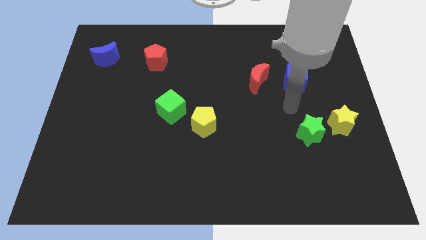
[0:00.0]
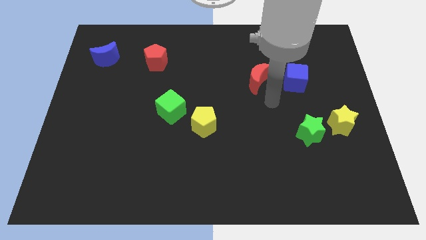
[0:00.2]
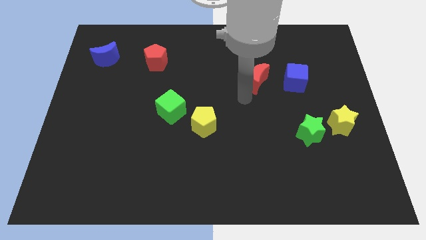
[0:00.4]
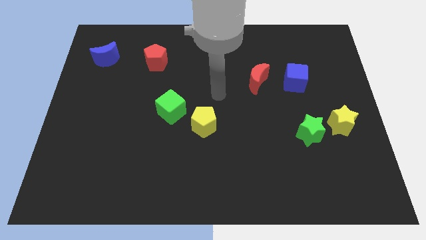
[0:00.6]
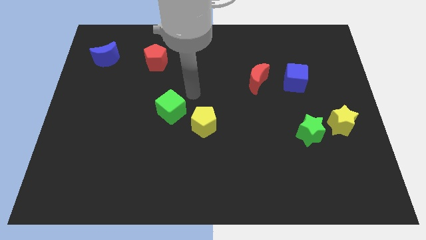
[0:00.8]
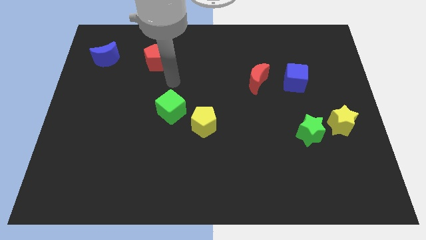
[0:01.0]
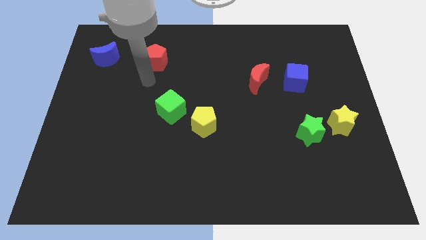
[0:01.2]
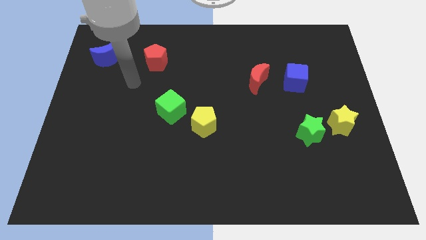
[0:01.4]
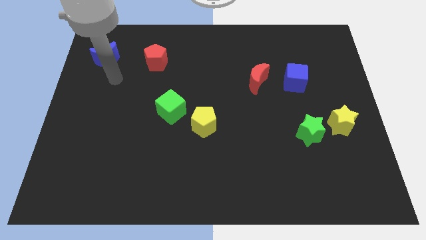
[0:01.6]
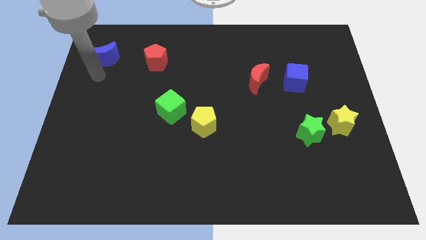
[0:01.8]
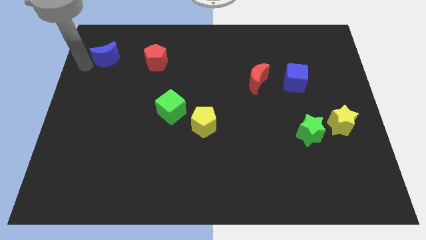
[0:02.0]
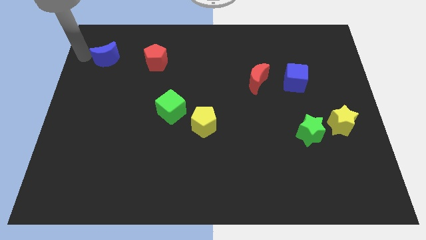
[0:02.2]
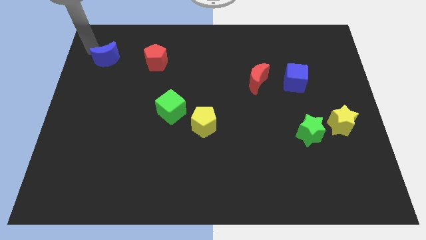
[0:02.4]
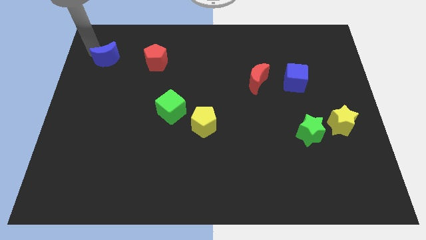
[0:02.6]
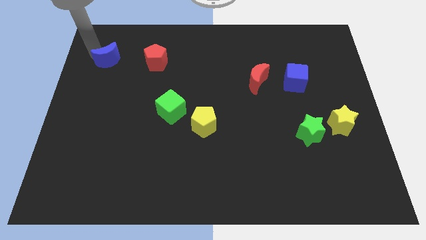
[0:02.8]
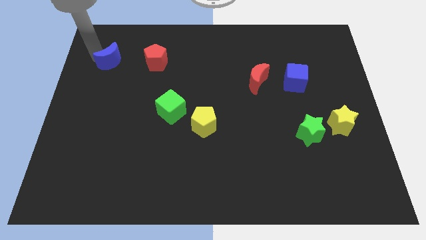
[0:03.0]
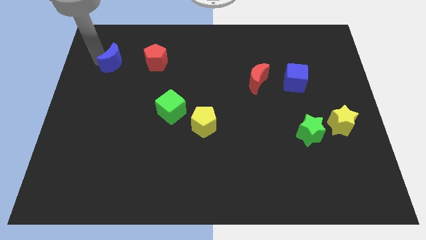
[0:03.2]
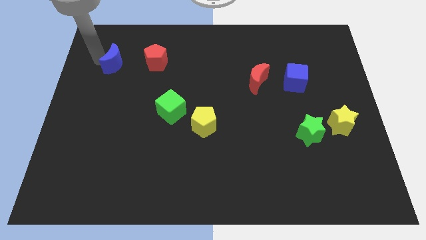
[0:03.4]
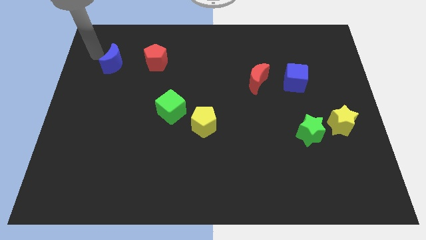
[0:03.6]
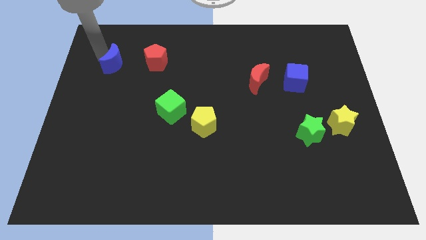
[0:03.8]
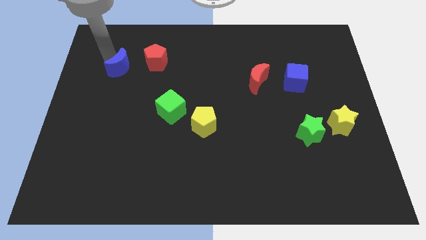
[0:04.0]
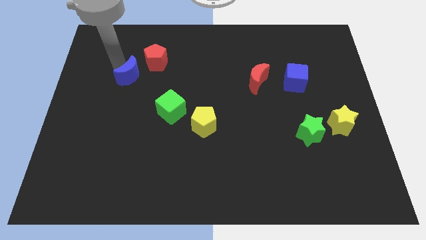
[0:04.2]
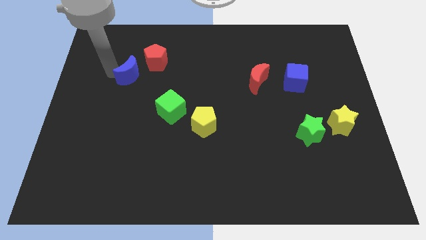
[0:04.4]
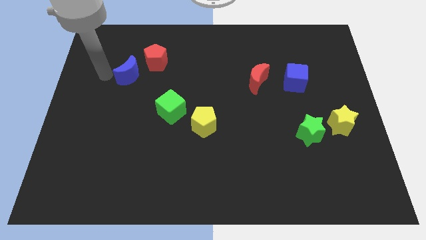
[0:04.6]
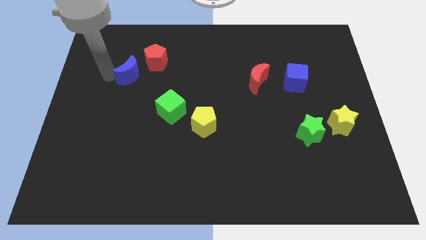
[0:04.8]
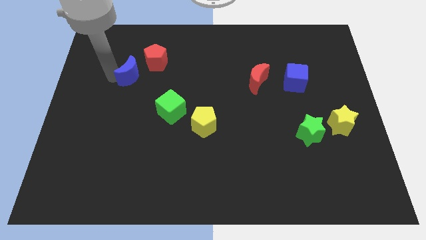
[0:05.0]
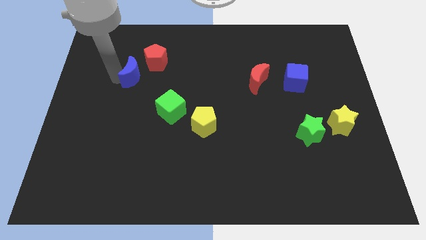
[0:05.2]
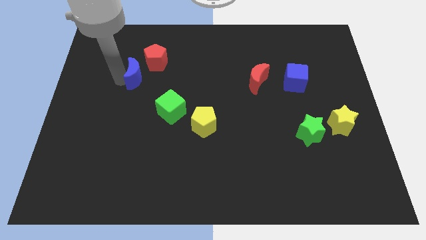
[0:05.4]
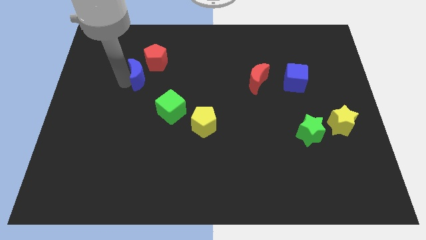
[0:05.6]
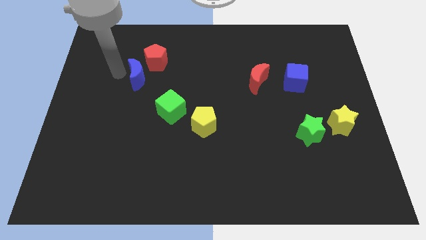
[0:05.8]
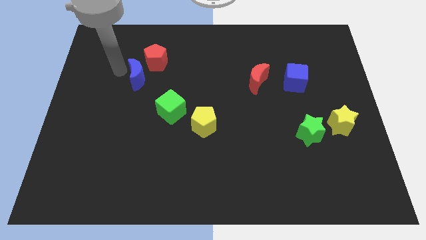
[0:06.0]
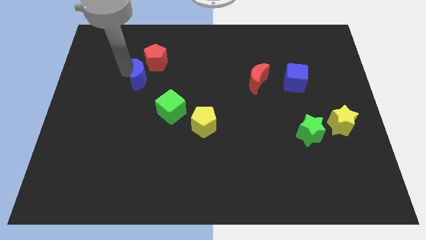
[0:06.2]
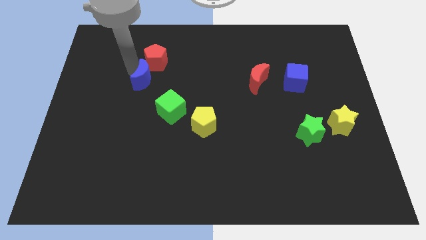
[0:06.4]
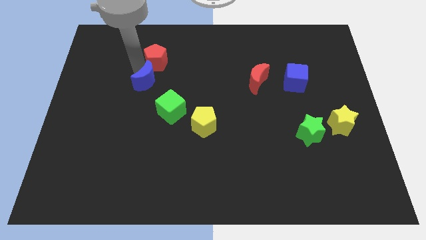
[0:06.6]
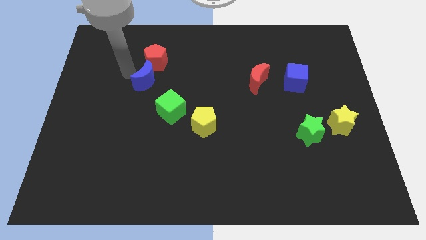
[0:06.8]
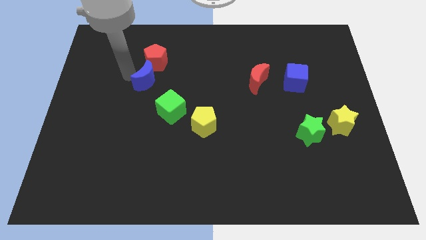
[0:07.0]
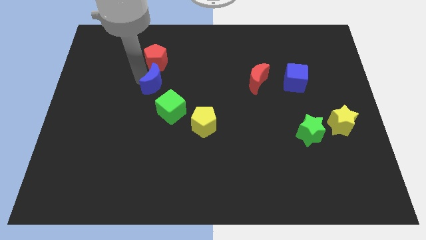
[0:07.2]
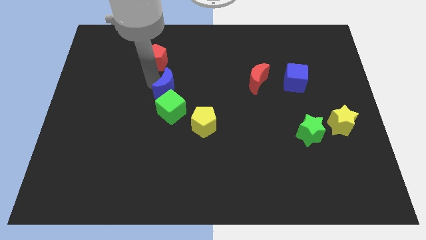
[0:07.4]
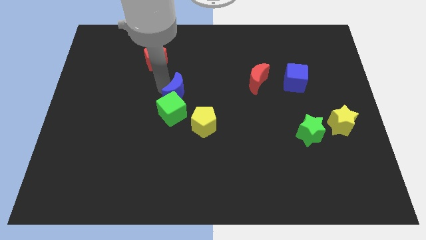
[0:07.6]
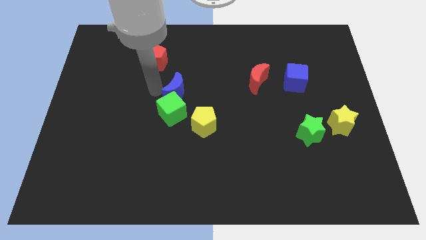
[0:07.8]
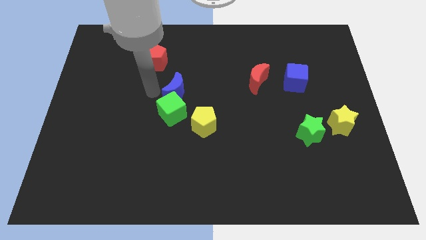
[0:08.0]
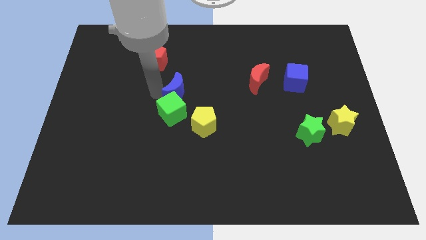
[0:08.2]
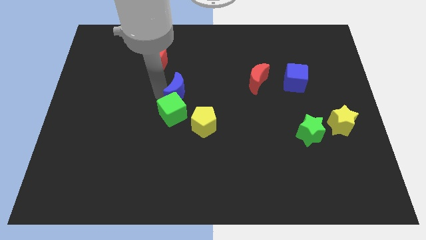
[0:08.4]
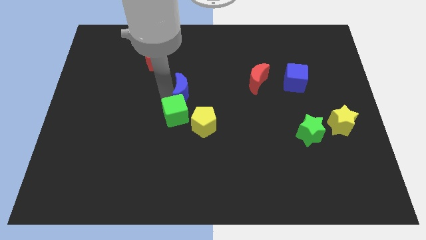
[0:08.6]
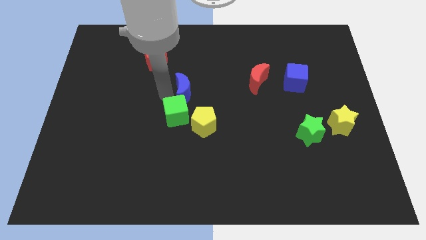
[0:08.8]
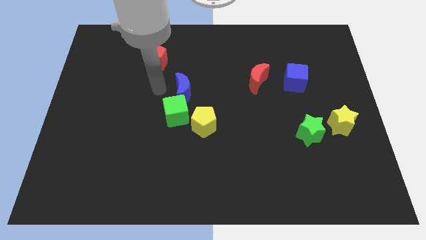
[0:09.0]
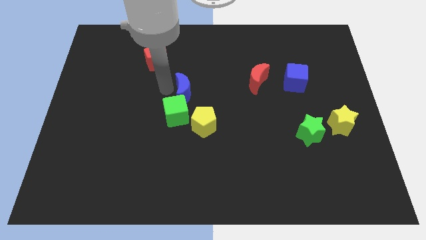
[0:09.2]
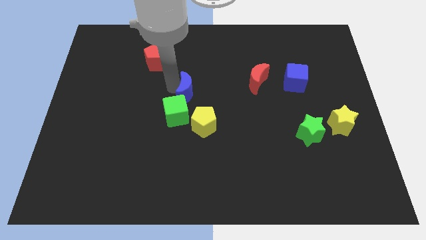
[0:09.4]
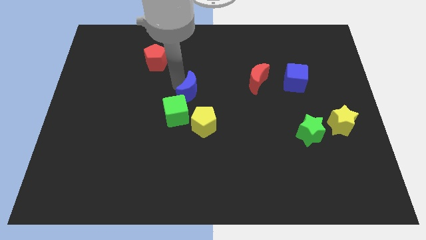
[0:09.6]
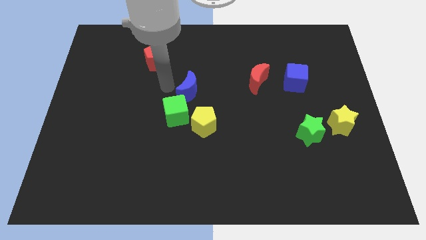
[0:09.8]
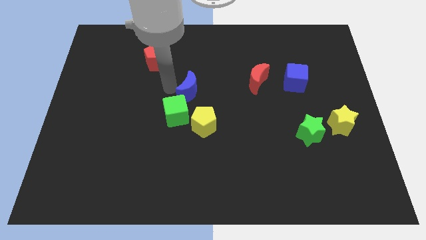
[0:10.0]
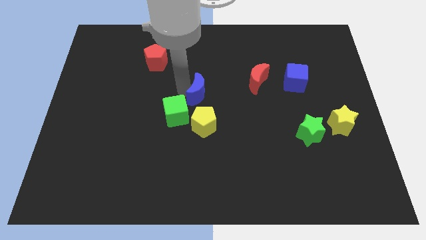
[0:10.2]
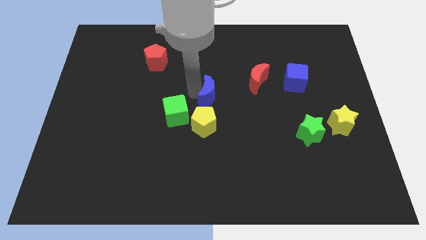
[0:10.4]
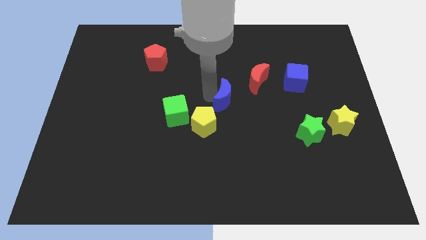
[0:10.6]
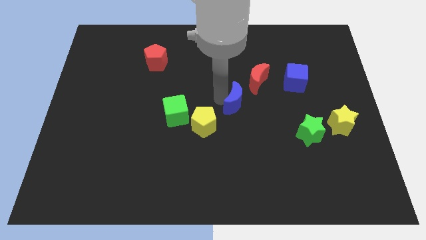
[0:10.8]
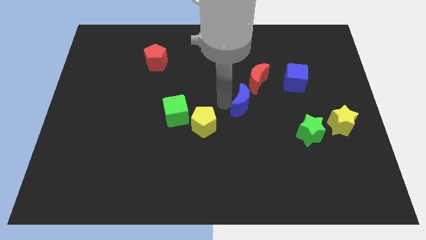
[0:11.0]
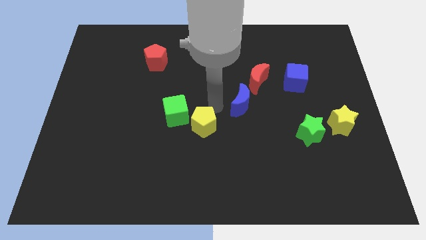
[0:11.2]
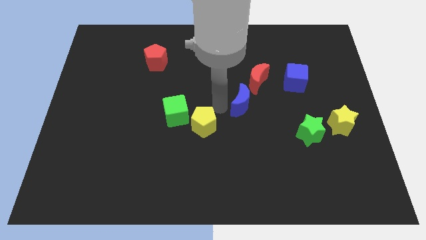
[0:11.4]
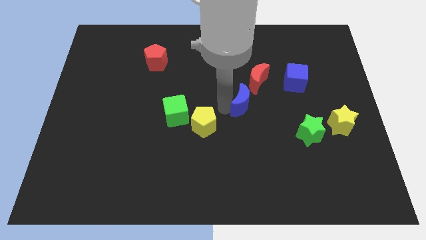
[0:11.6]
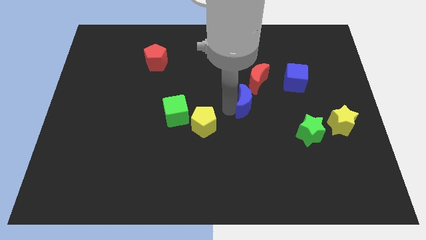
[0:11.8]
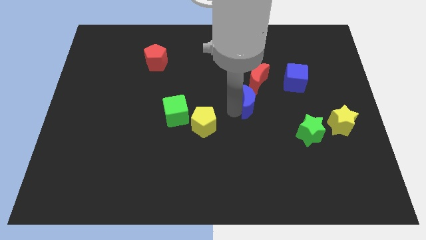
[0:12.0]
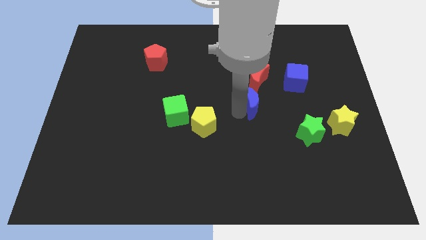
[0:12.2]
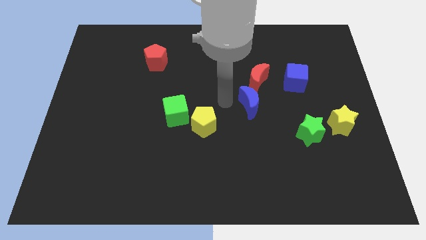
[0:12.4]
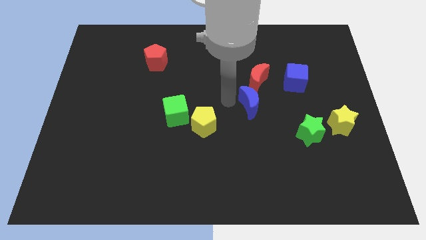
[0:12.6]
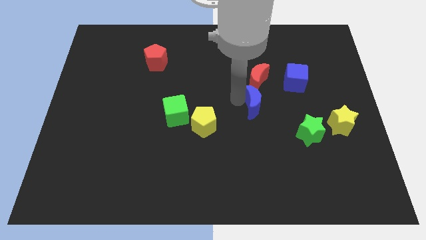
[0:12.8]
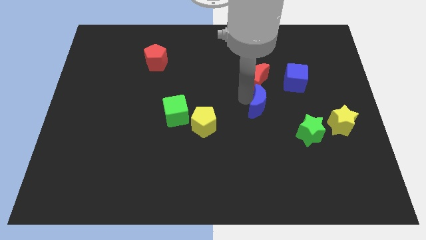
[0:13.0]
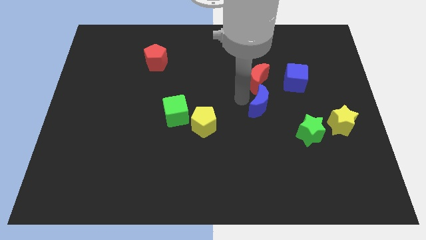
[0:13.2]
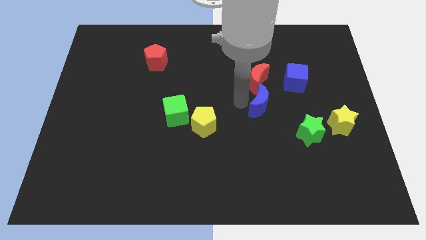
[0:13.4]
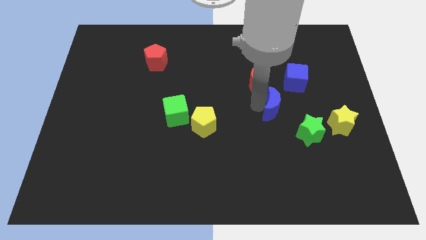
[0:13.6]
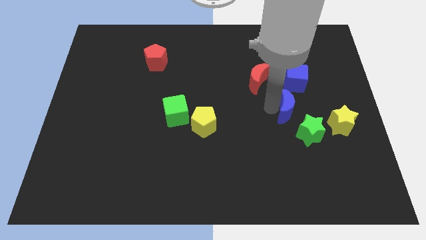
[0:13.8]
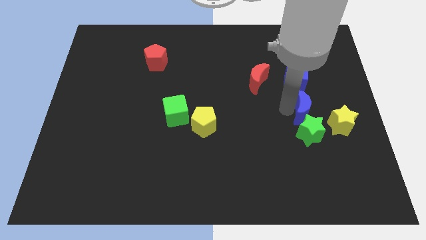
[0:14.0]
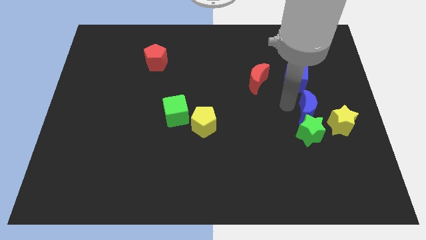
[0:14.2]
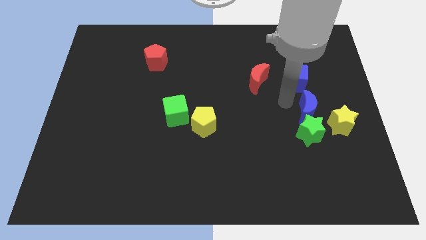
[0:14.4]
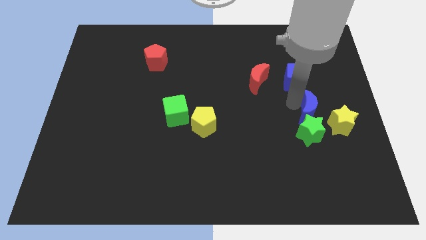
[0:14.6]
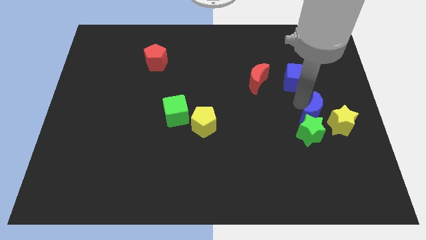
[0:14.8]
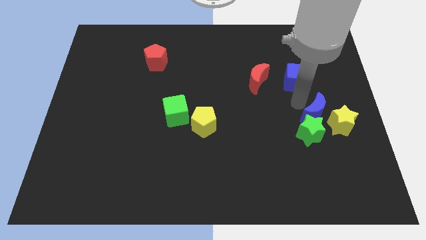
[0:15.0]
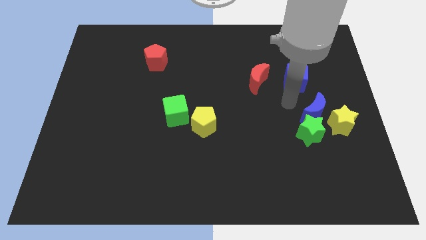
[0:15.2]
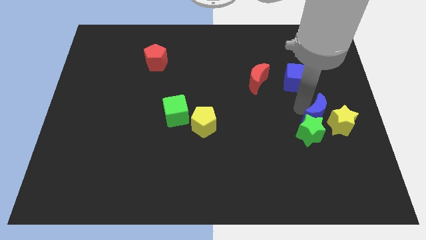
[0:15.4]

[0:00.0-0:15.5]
slide the blue moon to the yellow star

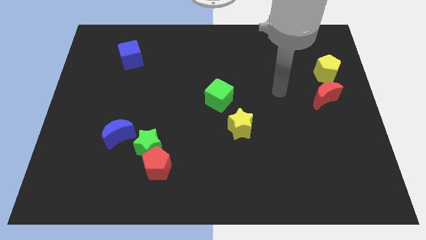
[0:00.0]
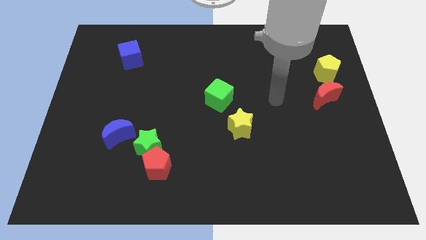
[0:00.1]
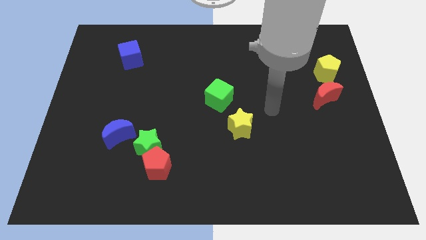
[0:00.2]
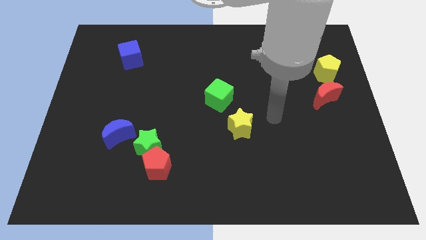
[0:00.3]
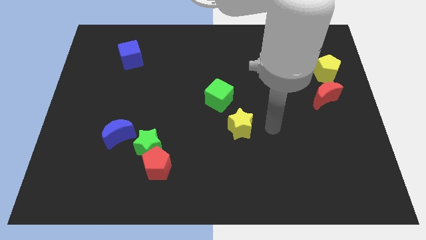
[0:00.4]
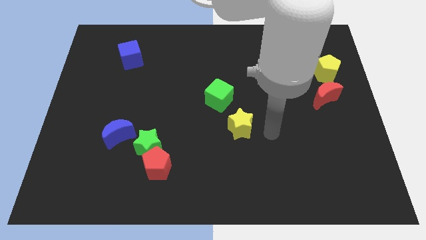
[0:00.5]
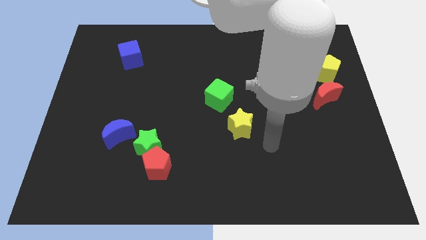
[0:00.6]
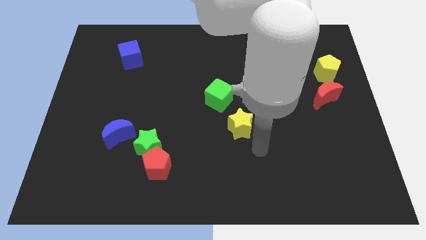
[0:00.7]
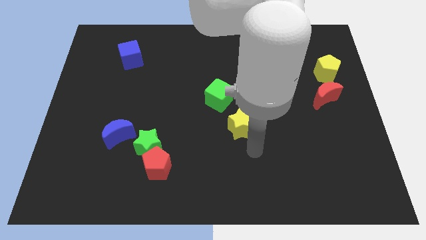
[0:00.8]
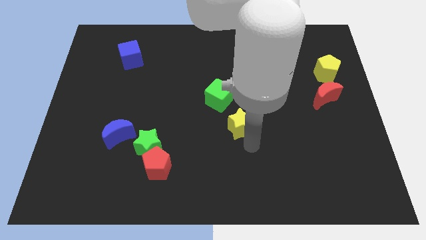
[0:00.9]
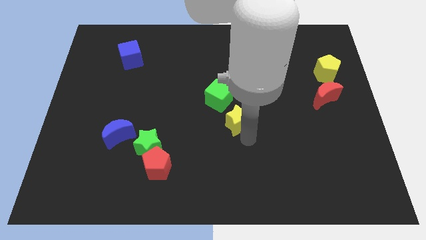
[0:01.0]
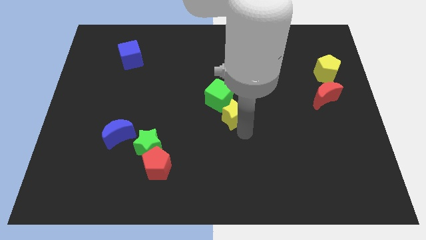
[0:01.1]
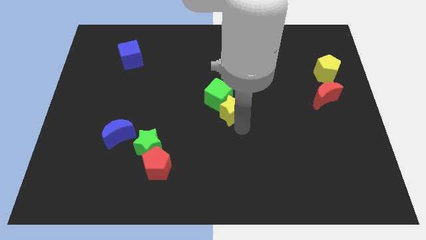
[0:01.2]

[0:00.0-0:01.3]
push the yellow star to the green cube
